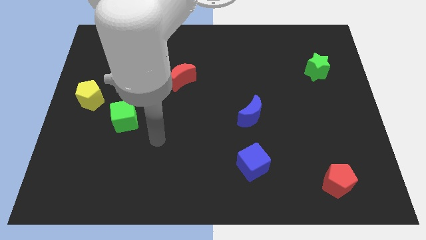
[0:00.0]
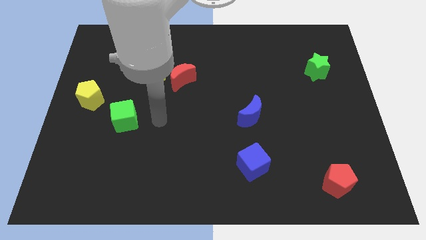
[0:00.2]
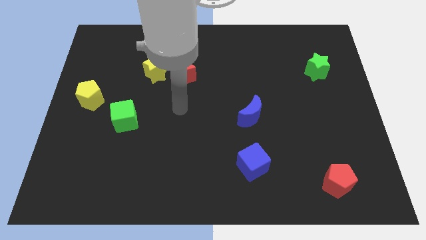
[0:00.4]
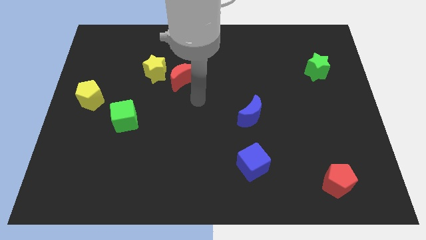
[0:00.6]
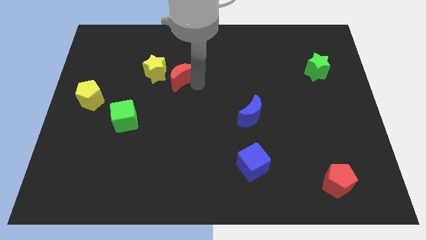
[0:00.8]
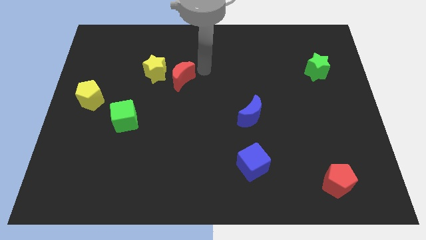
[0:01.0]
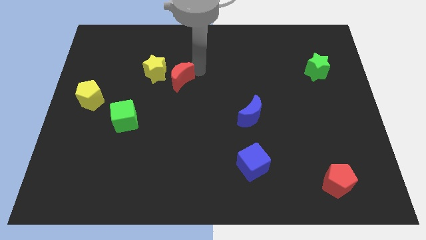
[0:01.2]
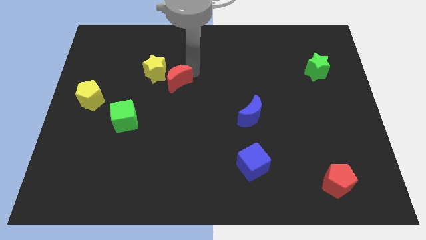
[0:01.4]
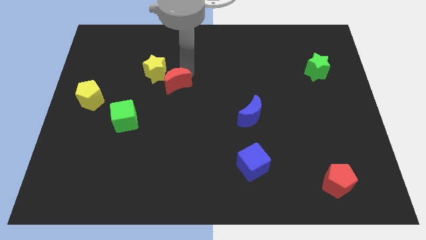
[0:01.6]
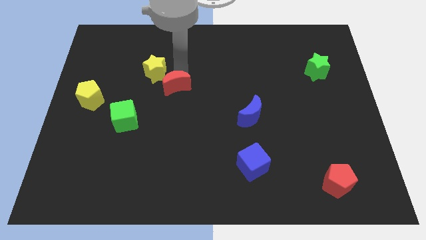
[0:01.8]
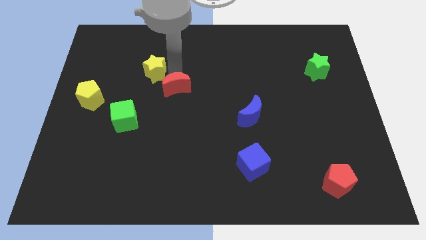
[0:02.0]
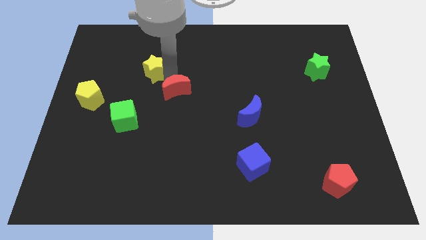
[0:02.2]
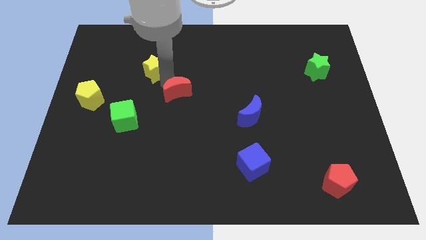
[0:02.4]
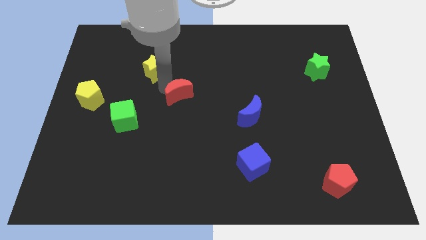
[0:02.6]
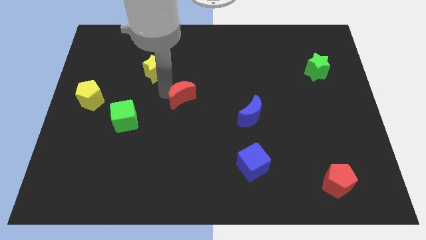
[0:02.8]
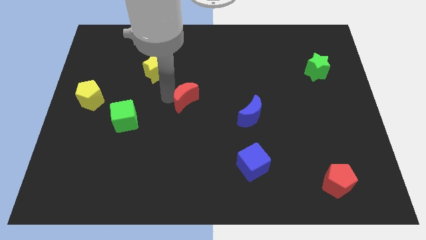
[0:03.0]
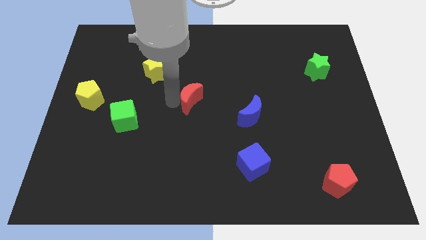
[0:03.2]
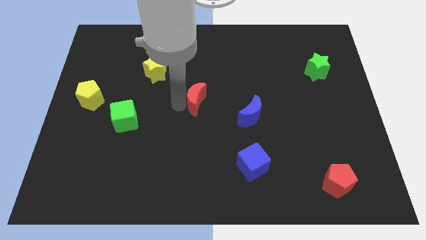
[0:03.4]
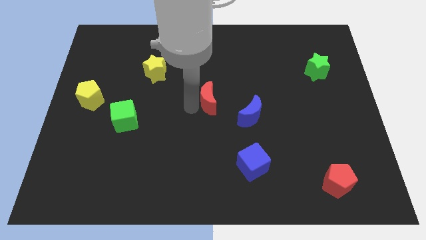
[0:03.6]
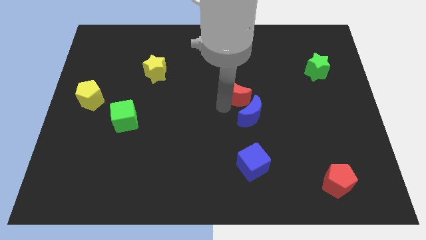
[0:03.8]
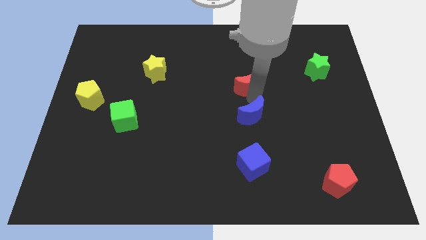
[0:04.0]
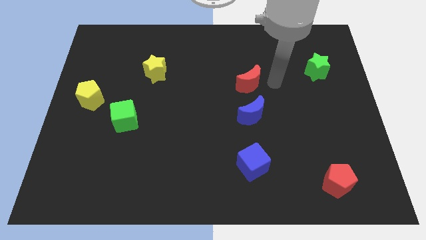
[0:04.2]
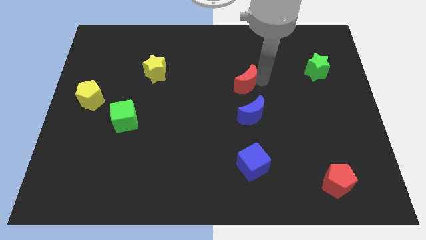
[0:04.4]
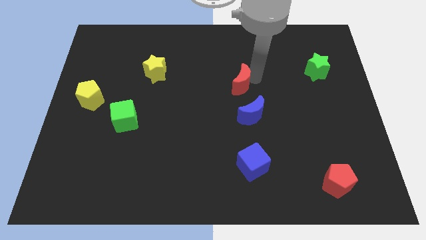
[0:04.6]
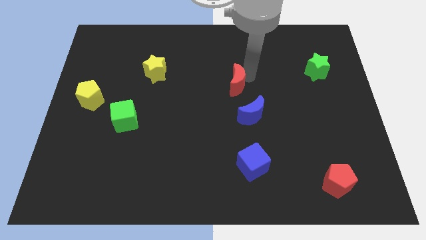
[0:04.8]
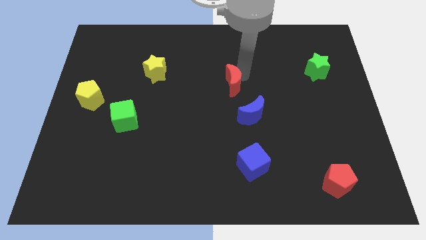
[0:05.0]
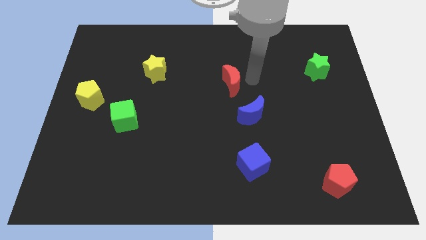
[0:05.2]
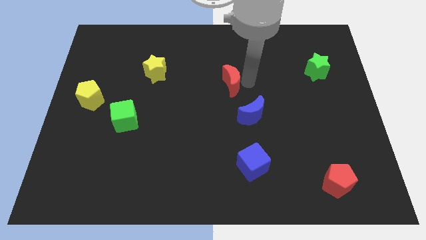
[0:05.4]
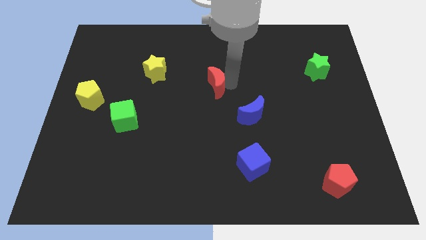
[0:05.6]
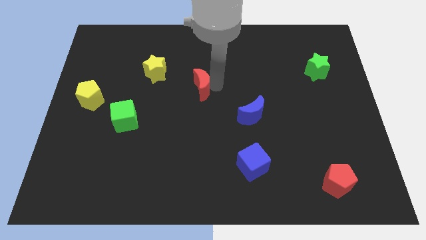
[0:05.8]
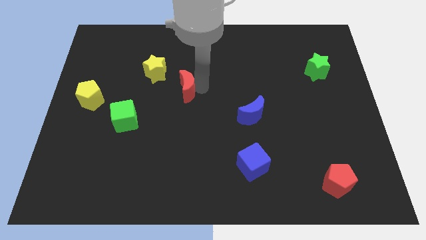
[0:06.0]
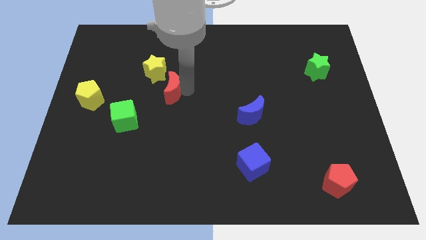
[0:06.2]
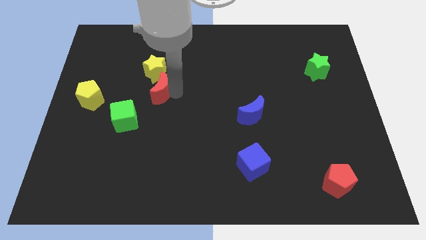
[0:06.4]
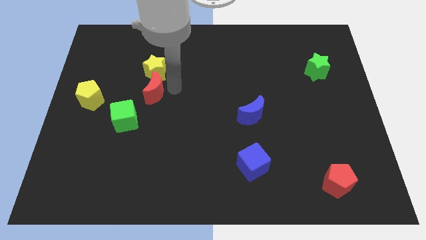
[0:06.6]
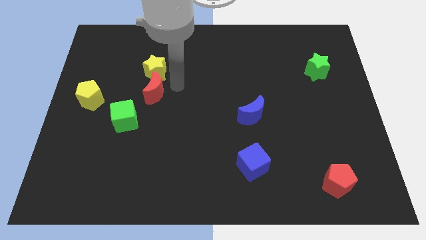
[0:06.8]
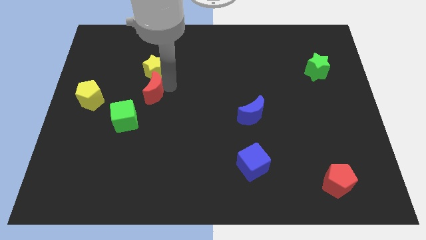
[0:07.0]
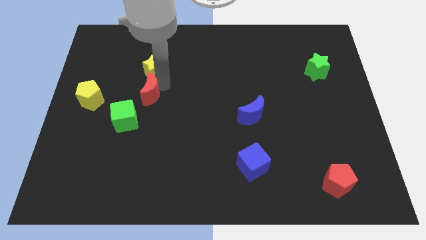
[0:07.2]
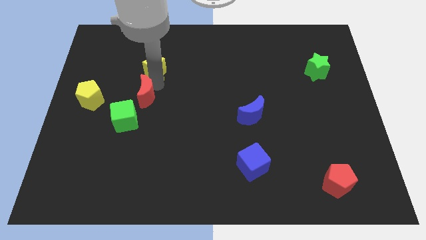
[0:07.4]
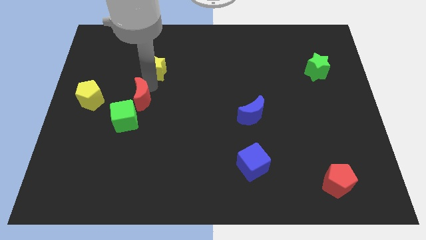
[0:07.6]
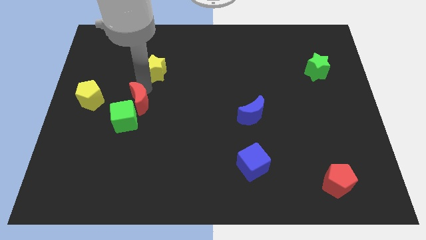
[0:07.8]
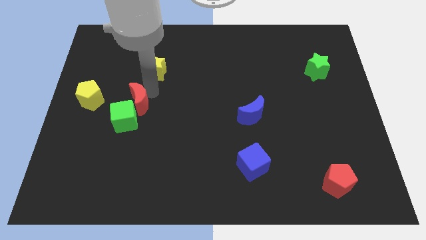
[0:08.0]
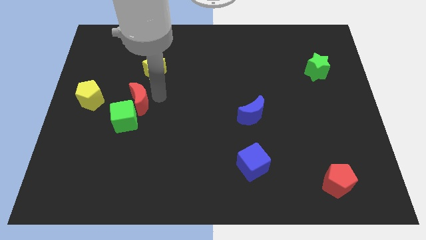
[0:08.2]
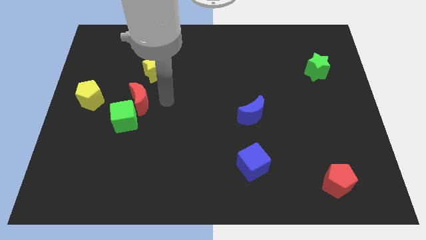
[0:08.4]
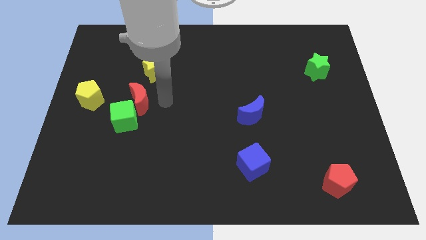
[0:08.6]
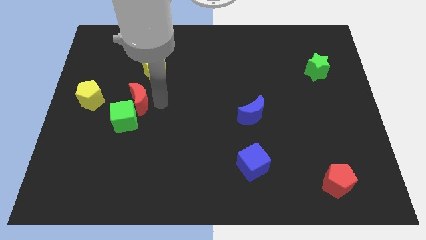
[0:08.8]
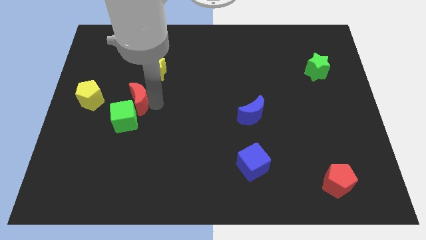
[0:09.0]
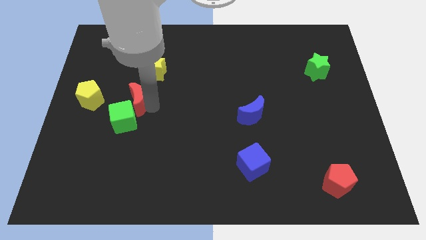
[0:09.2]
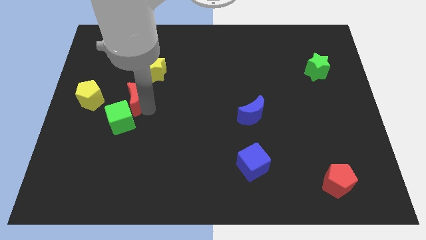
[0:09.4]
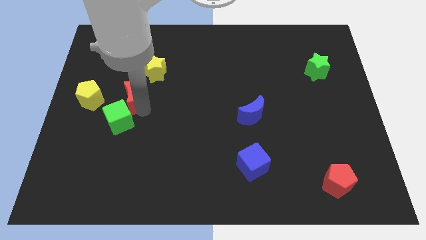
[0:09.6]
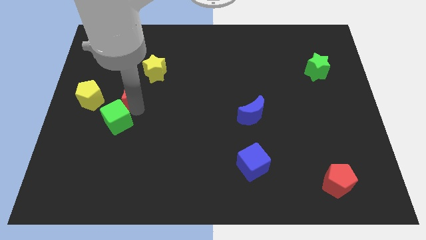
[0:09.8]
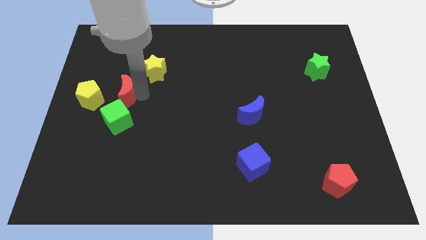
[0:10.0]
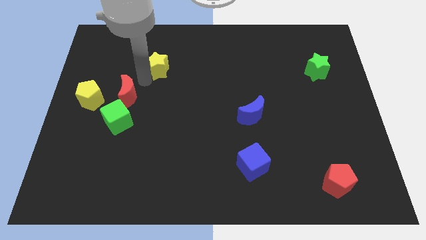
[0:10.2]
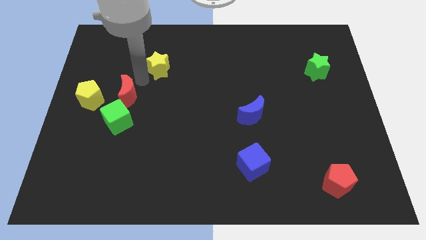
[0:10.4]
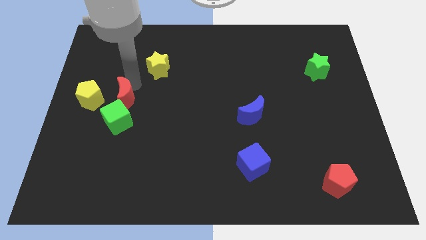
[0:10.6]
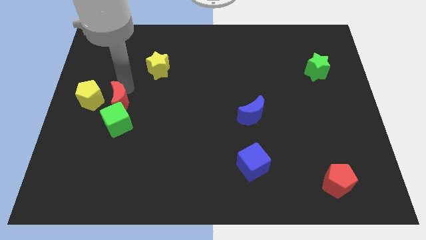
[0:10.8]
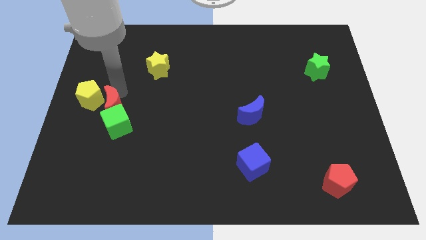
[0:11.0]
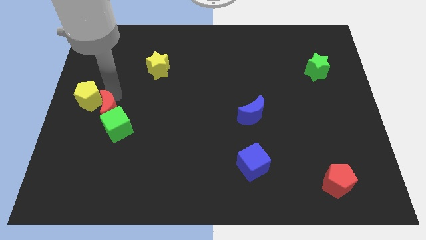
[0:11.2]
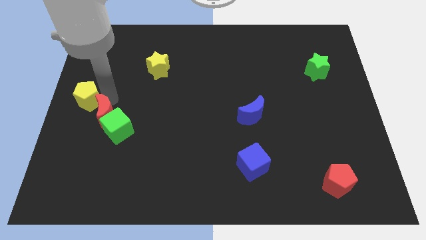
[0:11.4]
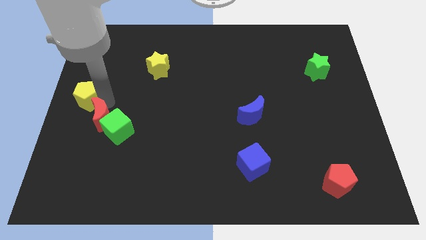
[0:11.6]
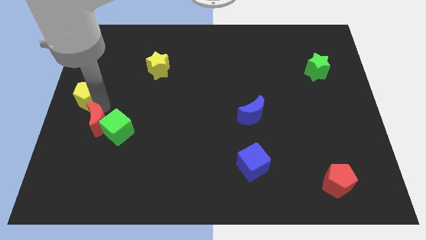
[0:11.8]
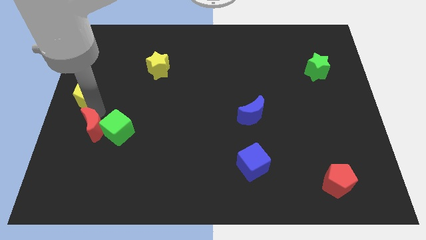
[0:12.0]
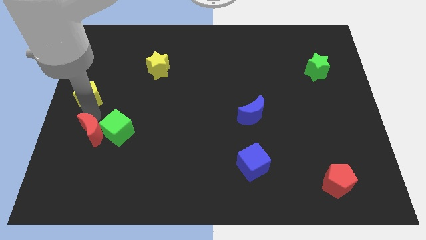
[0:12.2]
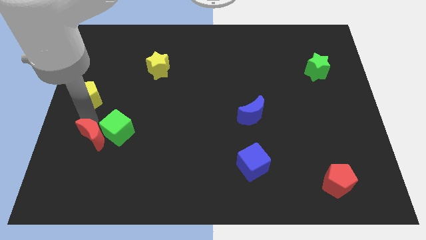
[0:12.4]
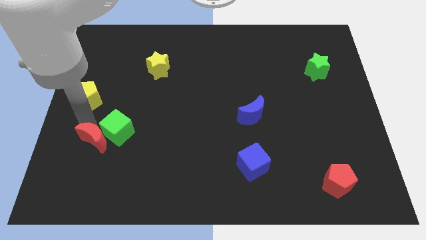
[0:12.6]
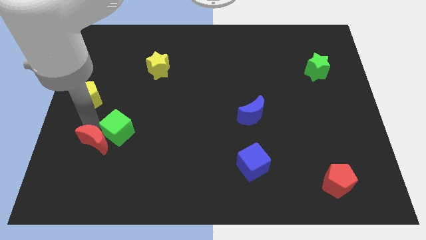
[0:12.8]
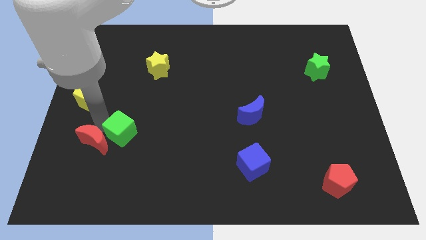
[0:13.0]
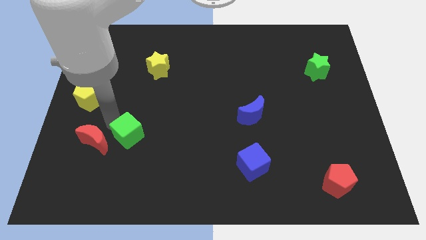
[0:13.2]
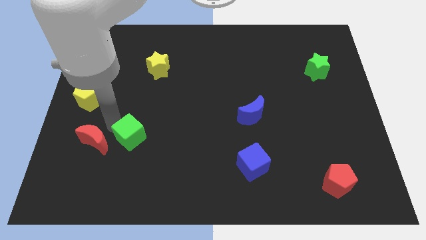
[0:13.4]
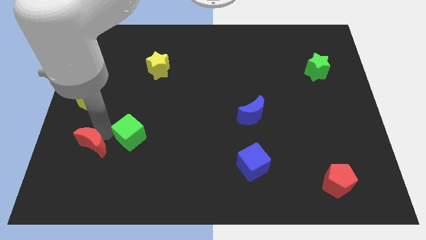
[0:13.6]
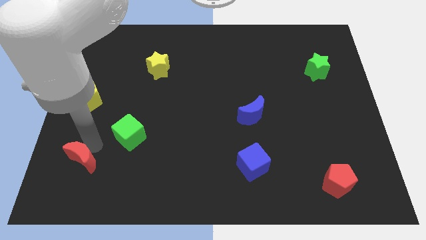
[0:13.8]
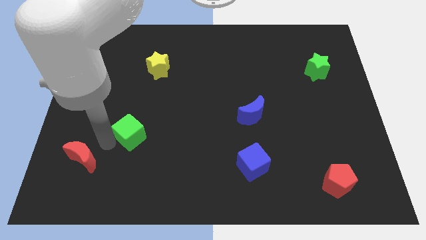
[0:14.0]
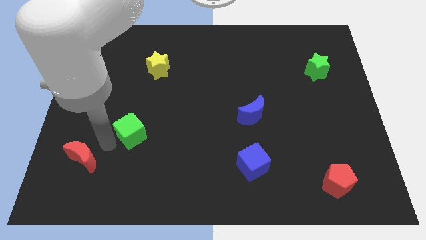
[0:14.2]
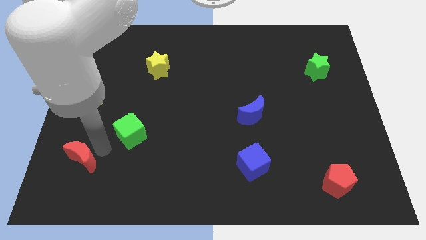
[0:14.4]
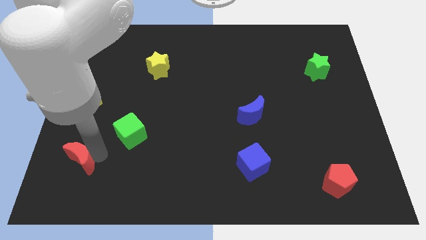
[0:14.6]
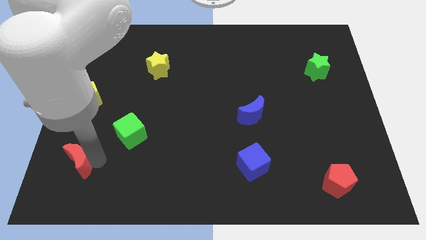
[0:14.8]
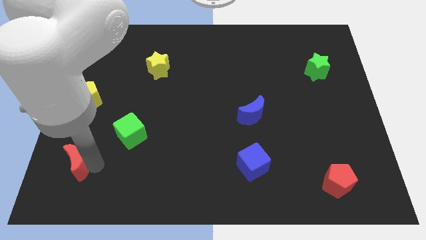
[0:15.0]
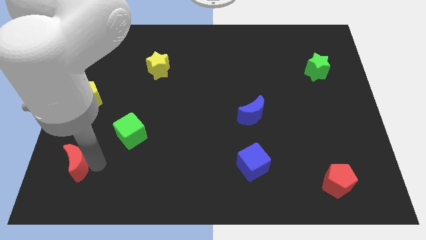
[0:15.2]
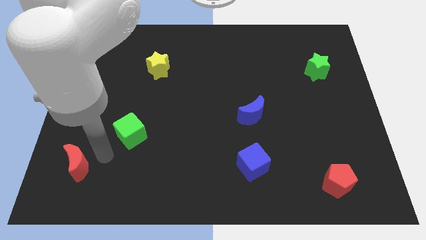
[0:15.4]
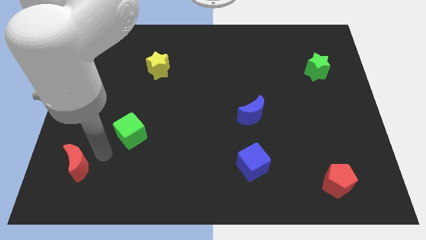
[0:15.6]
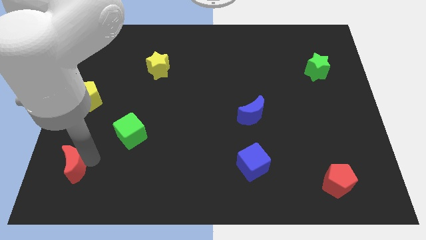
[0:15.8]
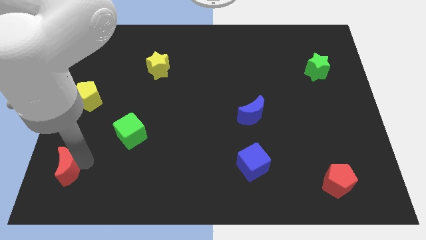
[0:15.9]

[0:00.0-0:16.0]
put the red moon to the bottom left corner
